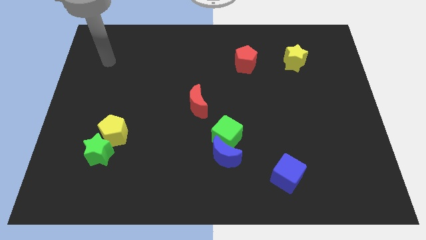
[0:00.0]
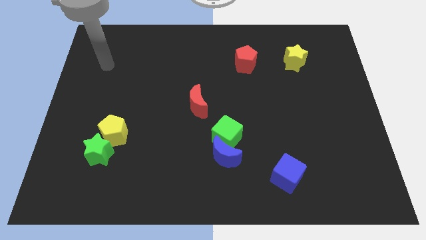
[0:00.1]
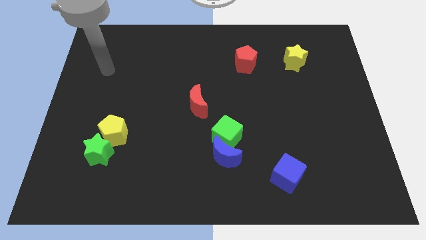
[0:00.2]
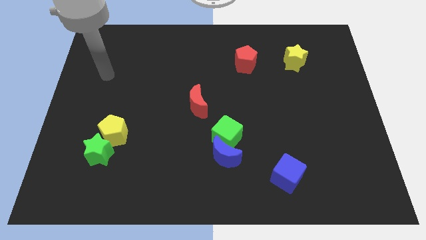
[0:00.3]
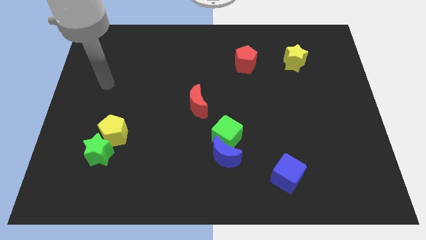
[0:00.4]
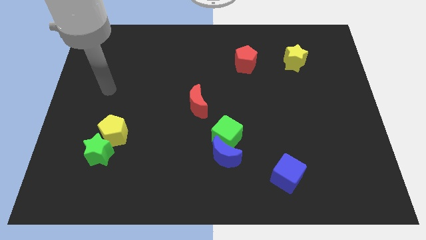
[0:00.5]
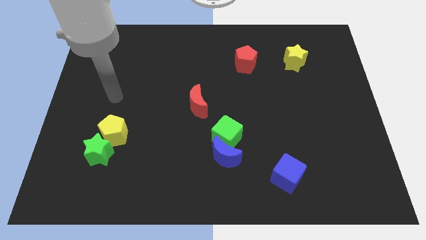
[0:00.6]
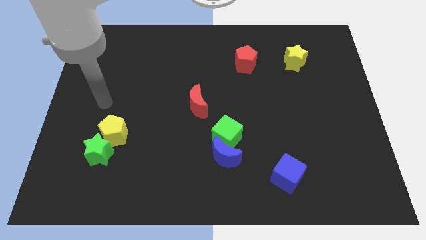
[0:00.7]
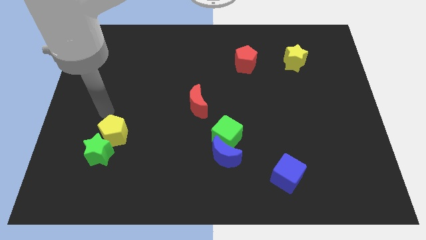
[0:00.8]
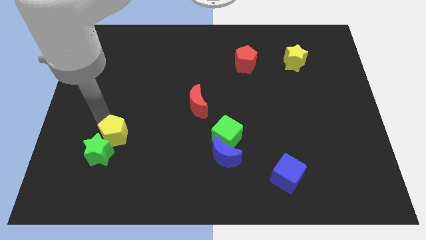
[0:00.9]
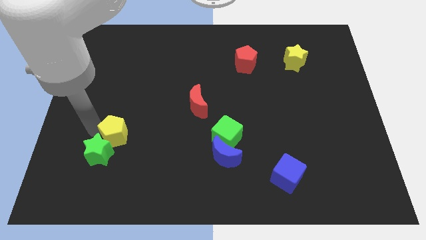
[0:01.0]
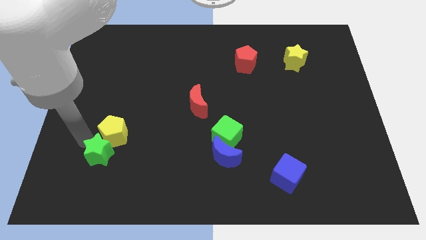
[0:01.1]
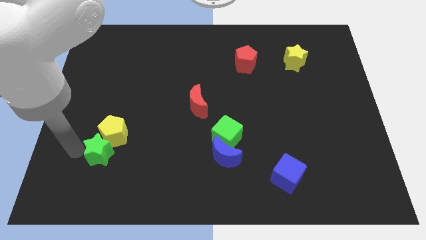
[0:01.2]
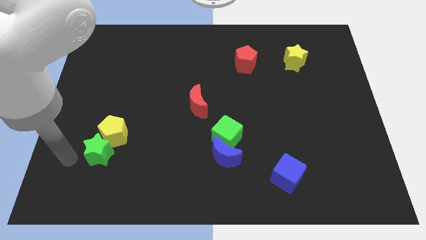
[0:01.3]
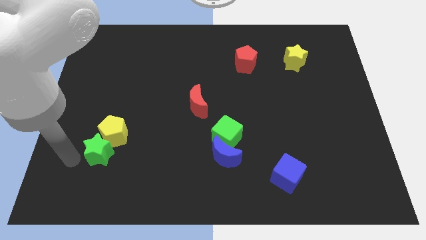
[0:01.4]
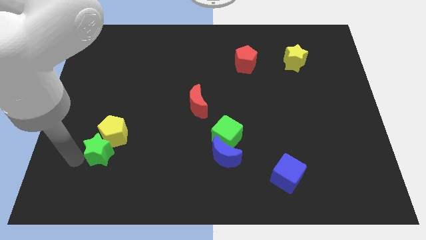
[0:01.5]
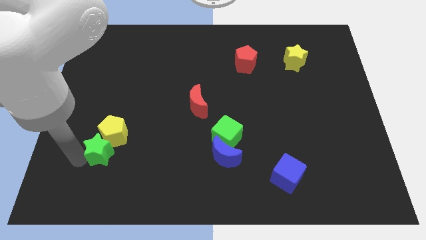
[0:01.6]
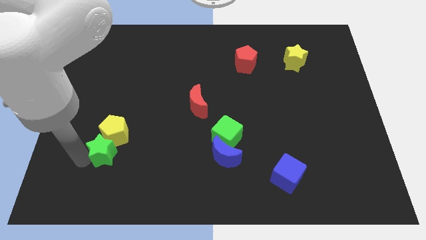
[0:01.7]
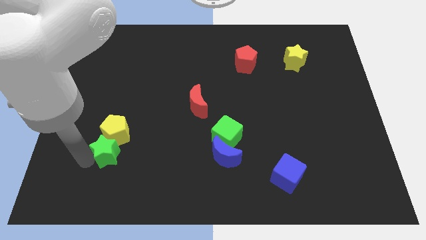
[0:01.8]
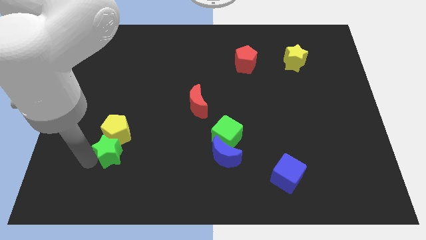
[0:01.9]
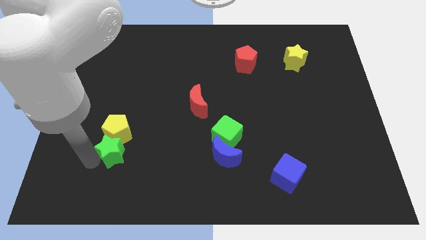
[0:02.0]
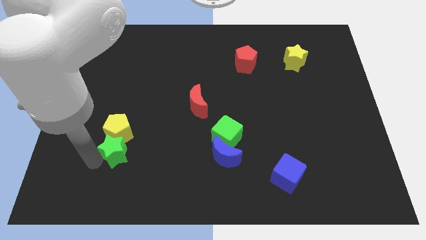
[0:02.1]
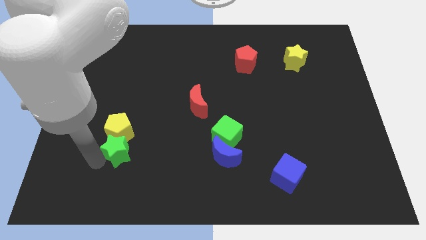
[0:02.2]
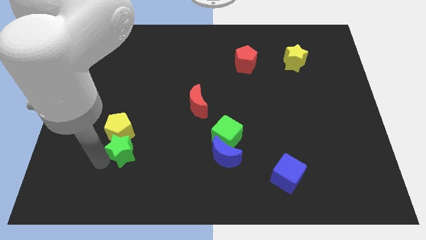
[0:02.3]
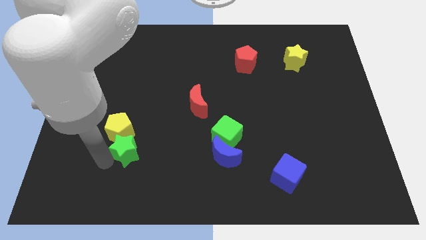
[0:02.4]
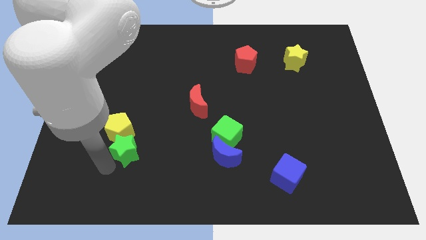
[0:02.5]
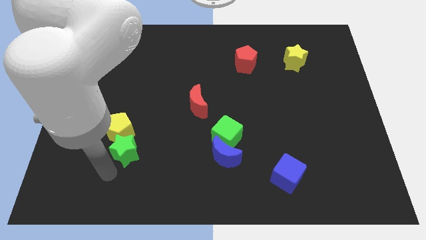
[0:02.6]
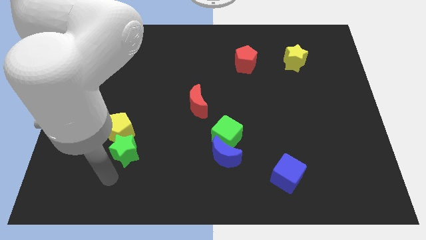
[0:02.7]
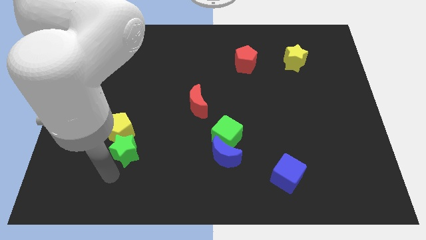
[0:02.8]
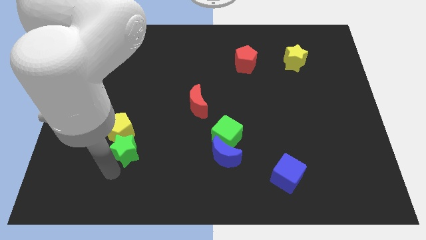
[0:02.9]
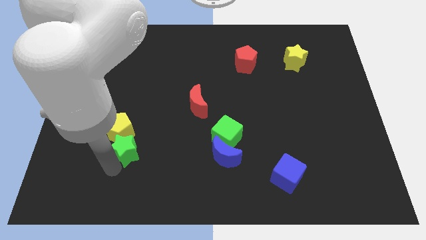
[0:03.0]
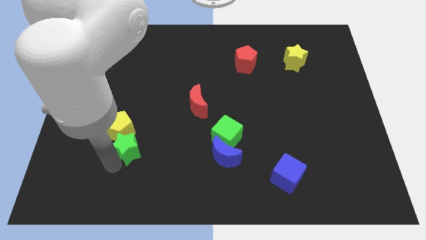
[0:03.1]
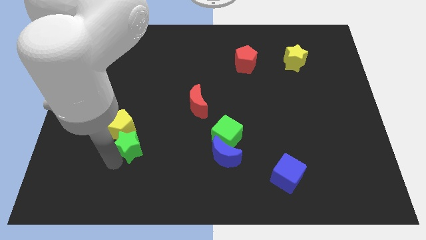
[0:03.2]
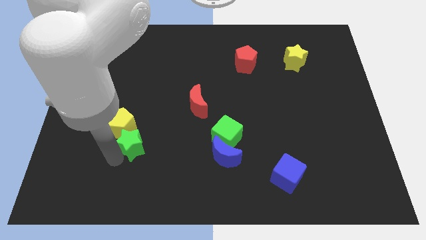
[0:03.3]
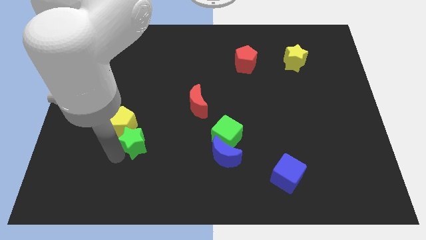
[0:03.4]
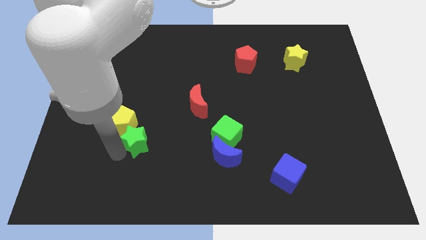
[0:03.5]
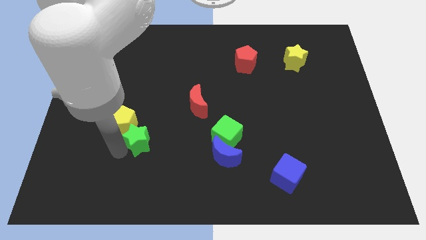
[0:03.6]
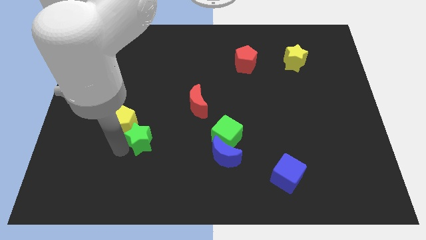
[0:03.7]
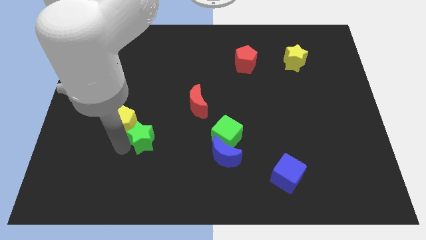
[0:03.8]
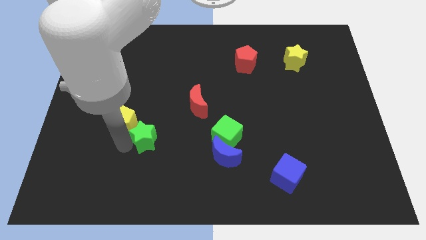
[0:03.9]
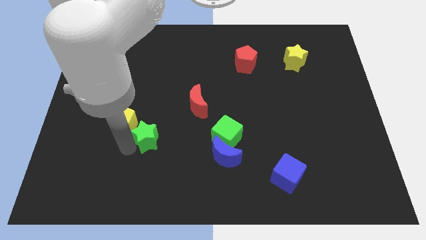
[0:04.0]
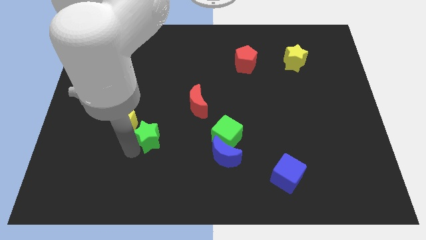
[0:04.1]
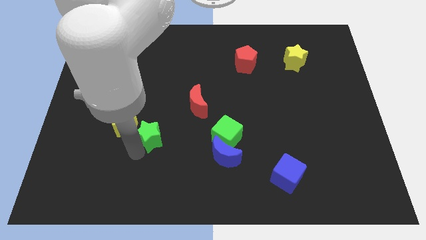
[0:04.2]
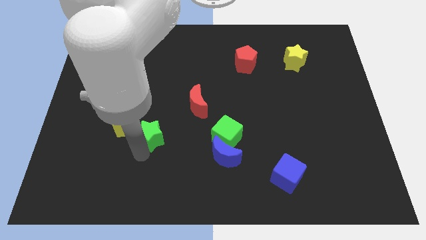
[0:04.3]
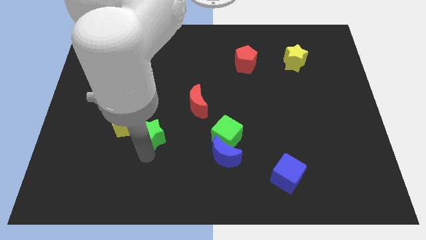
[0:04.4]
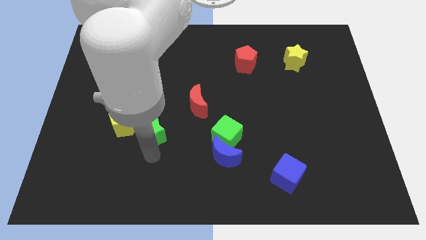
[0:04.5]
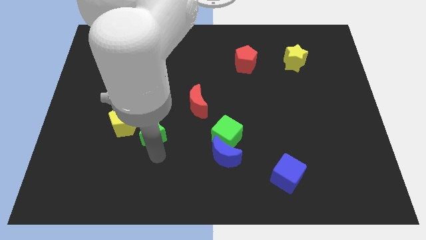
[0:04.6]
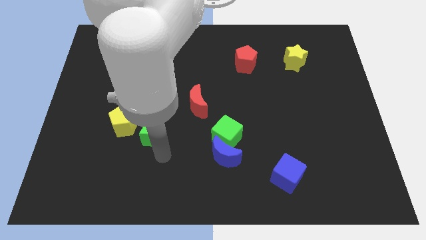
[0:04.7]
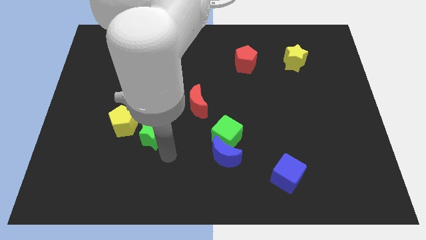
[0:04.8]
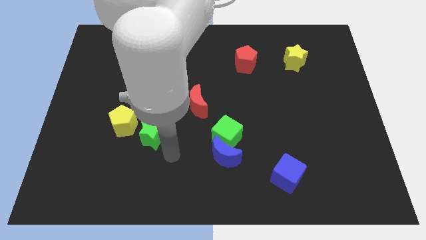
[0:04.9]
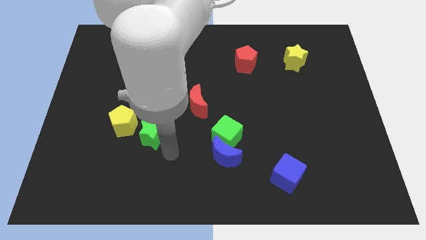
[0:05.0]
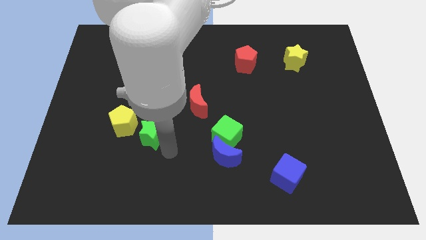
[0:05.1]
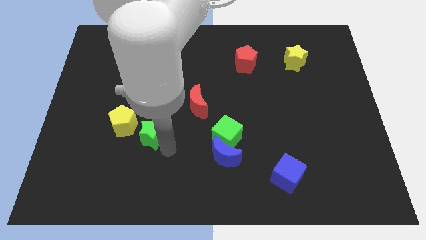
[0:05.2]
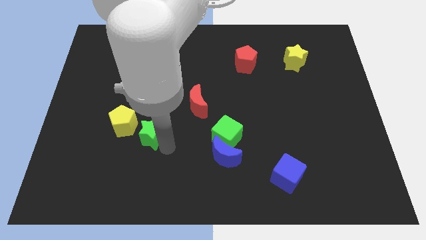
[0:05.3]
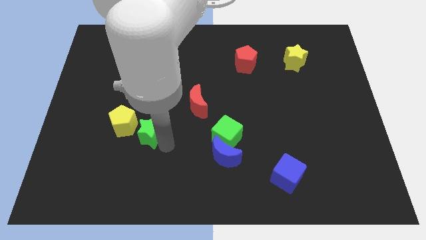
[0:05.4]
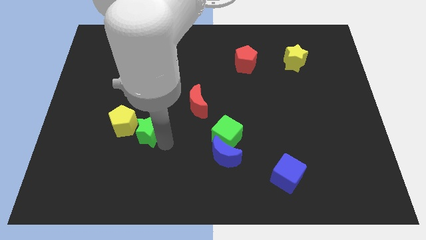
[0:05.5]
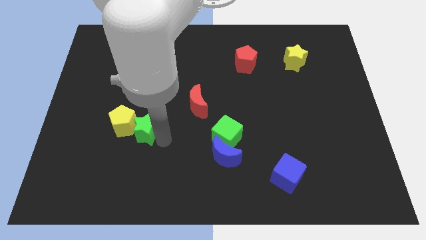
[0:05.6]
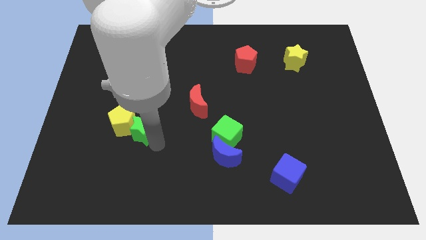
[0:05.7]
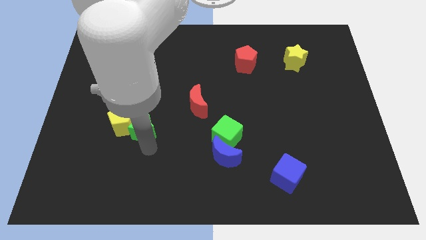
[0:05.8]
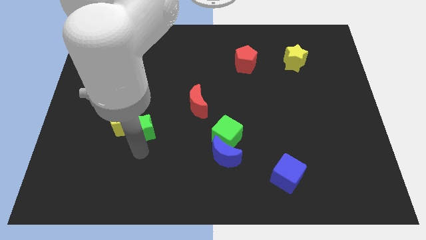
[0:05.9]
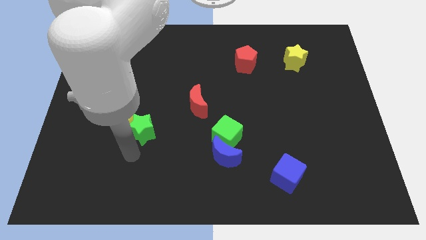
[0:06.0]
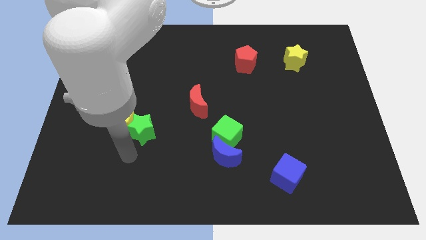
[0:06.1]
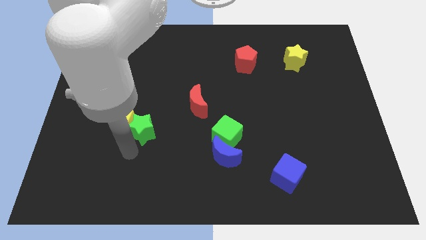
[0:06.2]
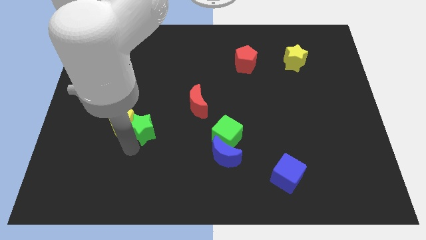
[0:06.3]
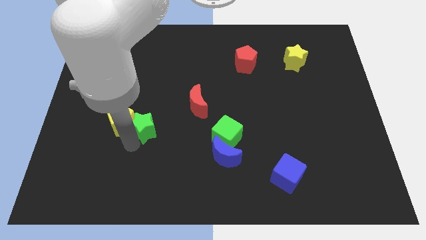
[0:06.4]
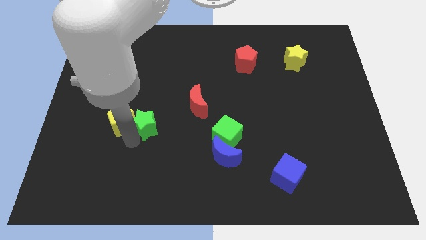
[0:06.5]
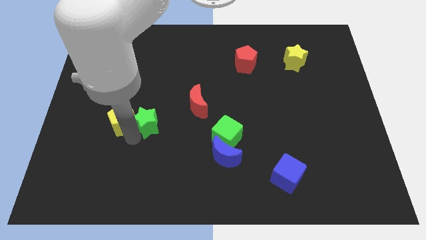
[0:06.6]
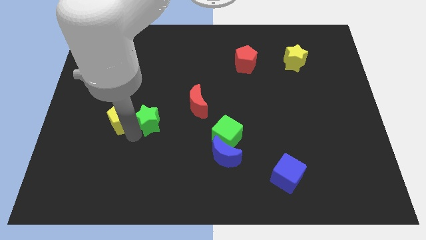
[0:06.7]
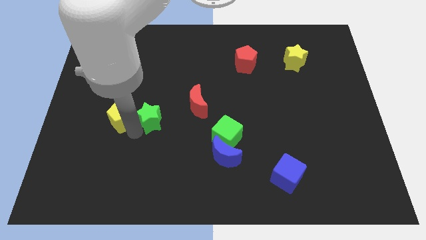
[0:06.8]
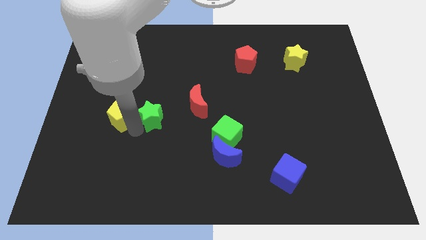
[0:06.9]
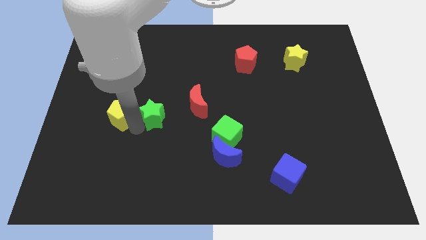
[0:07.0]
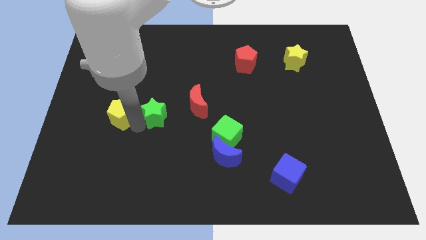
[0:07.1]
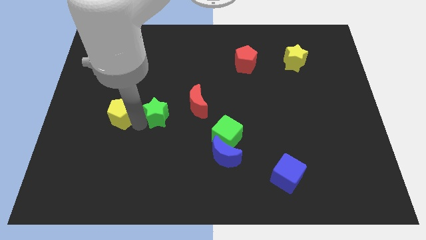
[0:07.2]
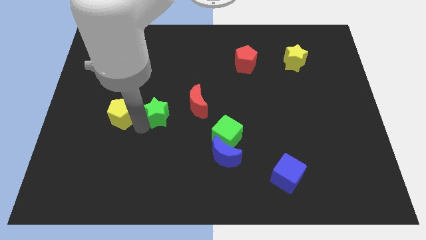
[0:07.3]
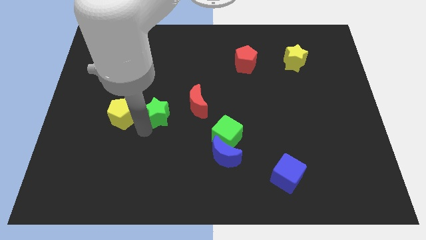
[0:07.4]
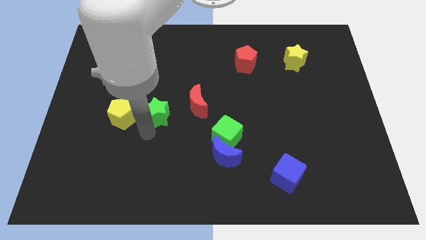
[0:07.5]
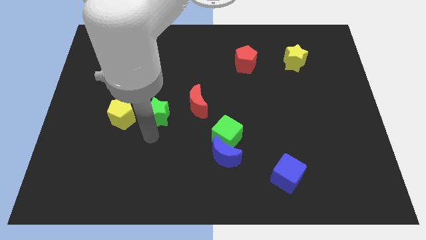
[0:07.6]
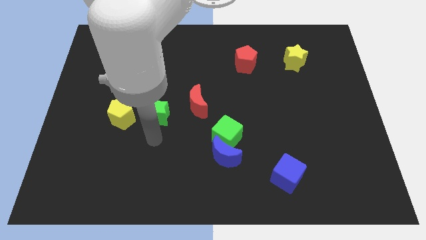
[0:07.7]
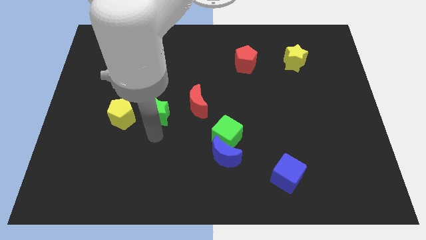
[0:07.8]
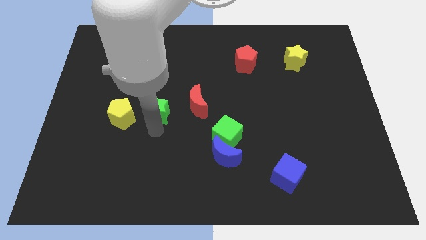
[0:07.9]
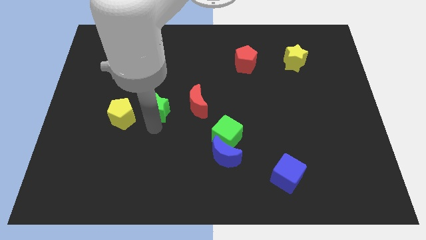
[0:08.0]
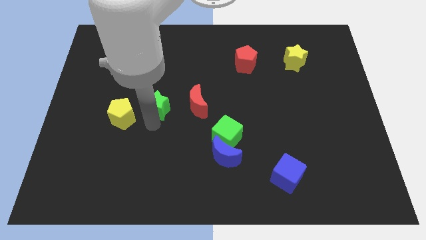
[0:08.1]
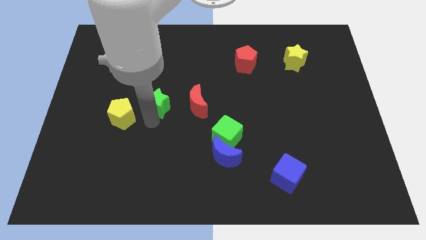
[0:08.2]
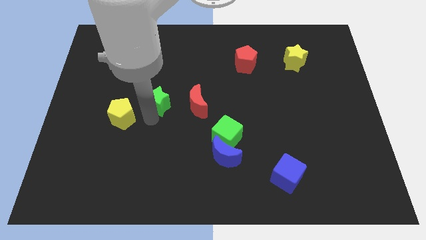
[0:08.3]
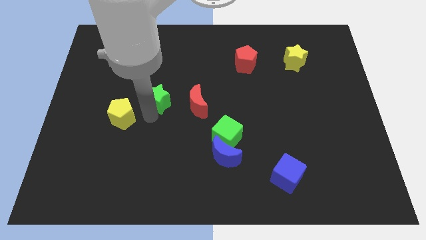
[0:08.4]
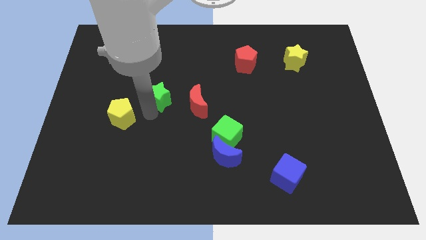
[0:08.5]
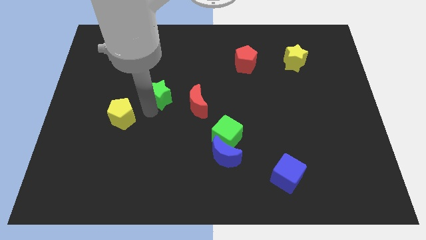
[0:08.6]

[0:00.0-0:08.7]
slide the green star to the top left side of the red moon
